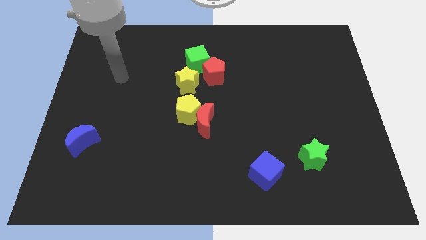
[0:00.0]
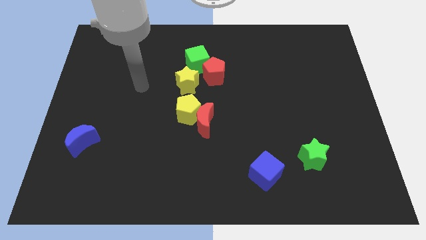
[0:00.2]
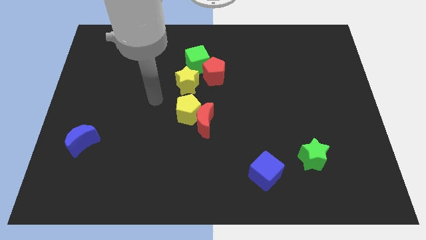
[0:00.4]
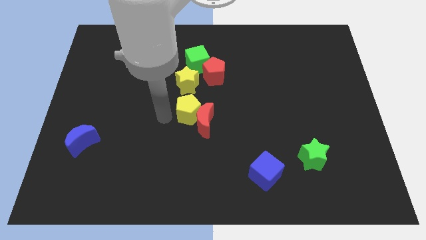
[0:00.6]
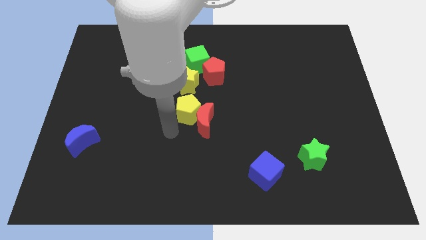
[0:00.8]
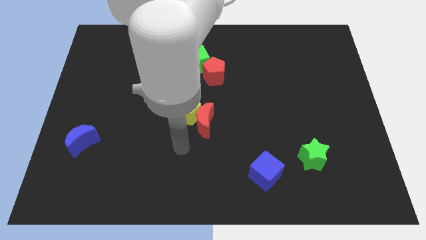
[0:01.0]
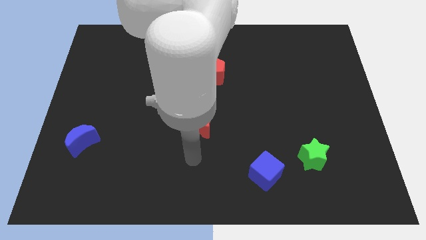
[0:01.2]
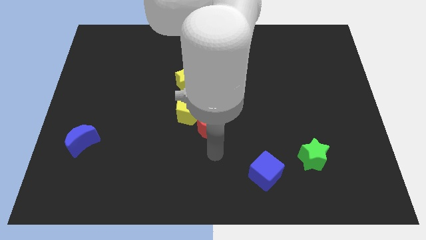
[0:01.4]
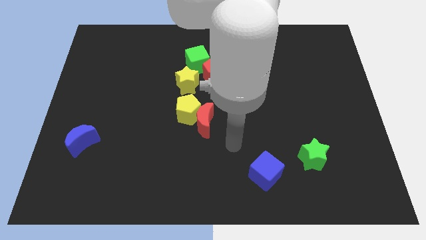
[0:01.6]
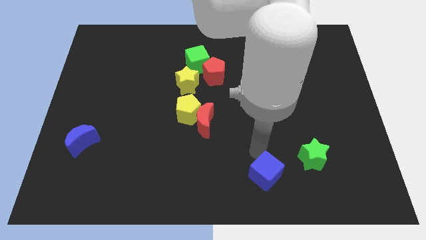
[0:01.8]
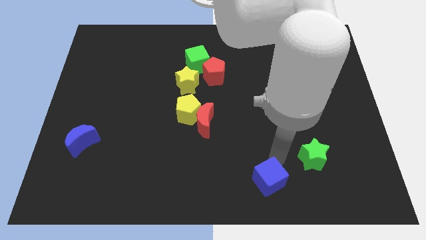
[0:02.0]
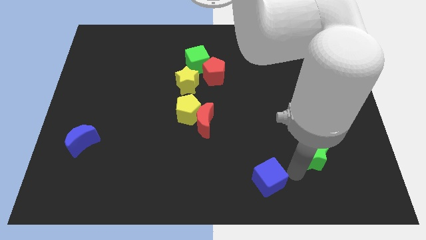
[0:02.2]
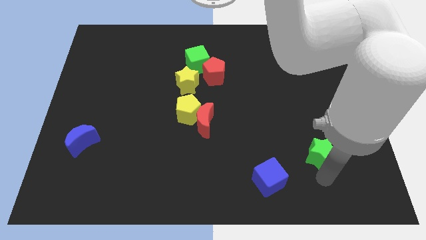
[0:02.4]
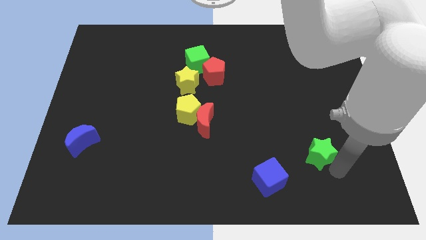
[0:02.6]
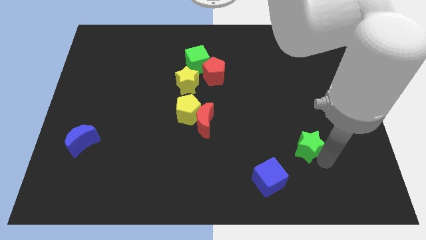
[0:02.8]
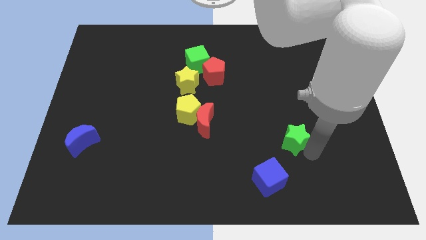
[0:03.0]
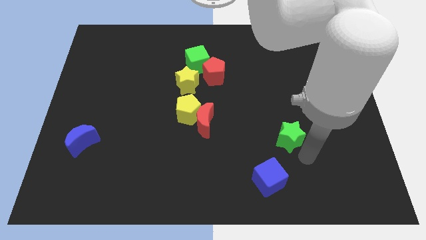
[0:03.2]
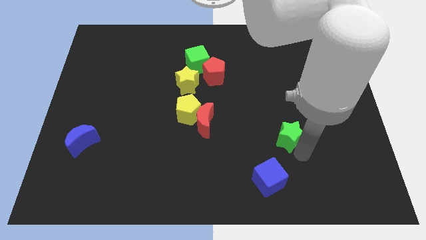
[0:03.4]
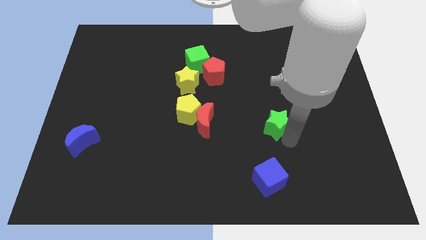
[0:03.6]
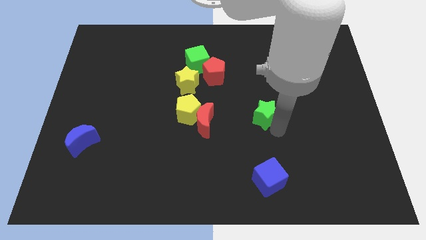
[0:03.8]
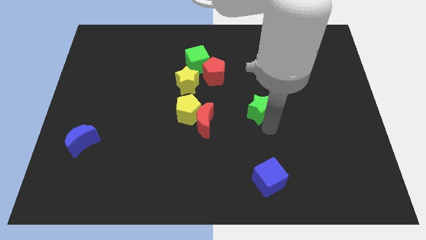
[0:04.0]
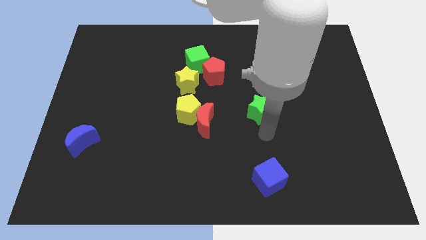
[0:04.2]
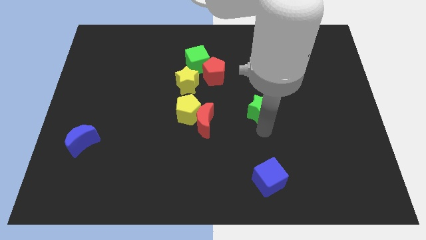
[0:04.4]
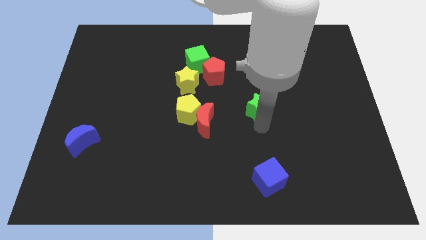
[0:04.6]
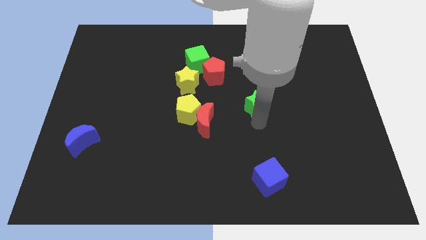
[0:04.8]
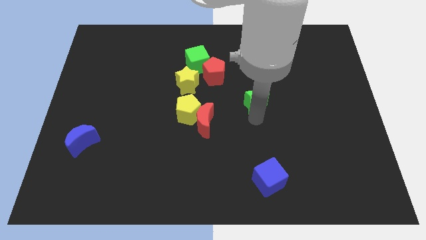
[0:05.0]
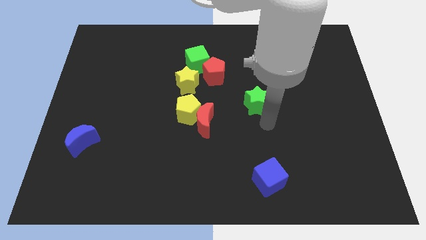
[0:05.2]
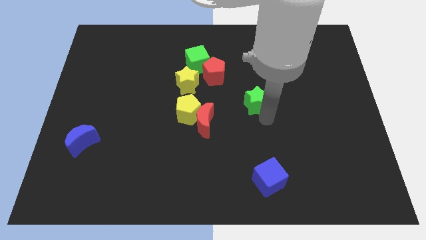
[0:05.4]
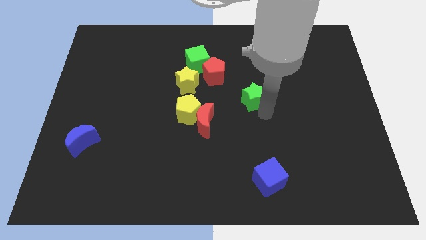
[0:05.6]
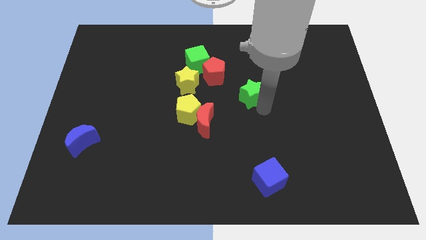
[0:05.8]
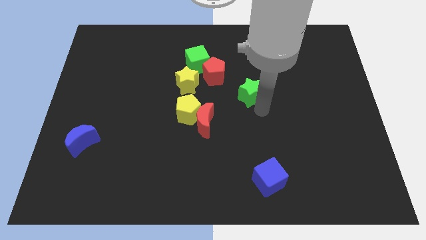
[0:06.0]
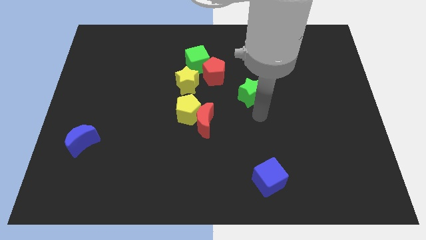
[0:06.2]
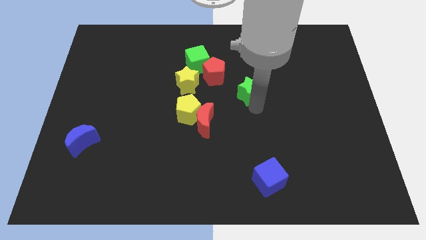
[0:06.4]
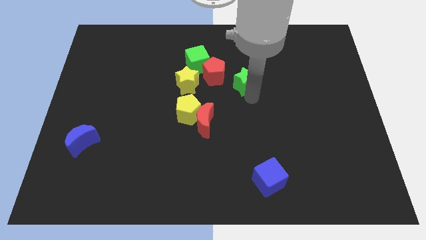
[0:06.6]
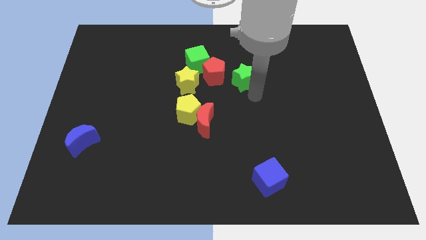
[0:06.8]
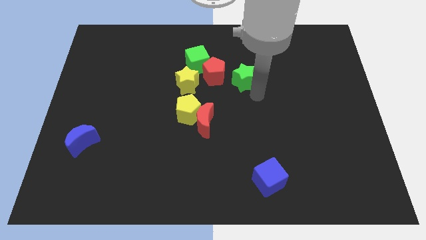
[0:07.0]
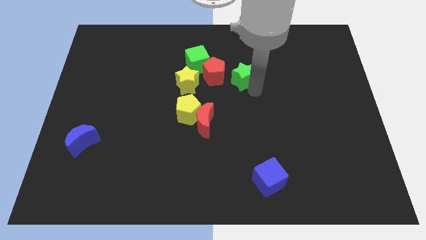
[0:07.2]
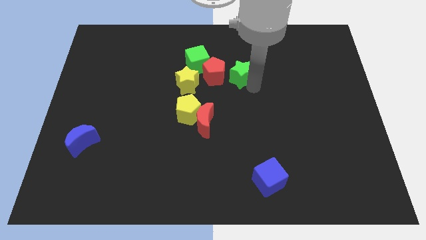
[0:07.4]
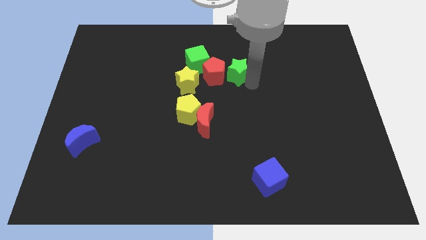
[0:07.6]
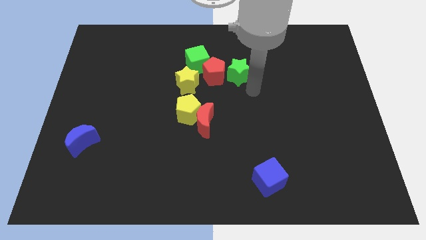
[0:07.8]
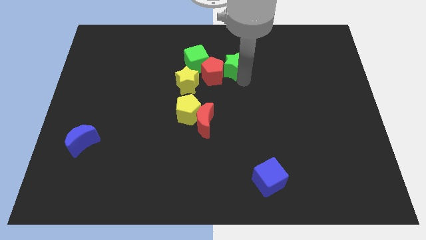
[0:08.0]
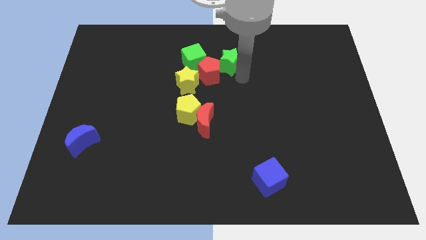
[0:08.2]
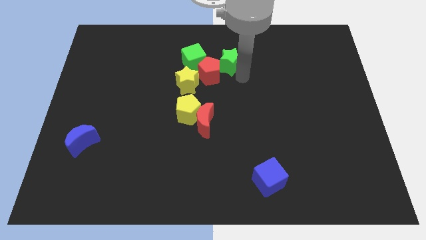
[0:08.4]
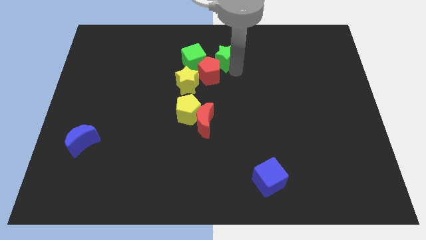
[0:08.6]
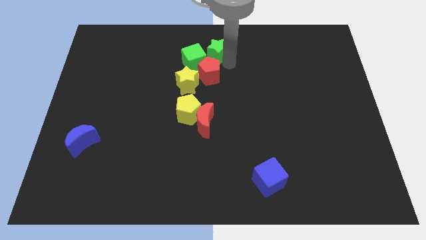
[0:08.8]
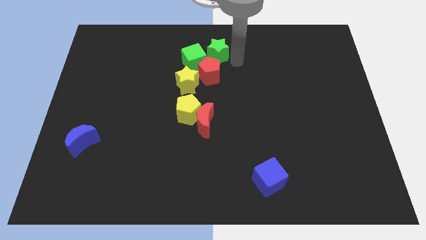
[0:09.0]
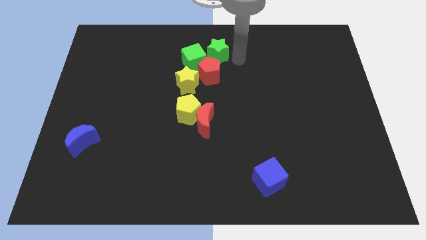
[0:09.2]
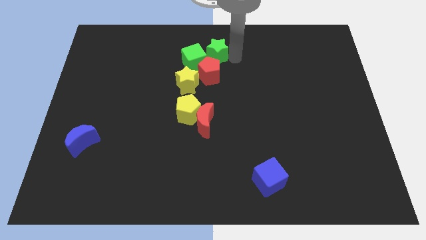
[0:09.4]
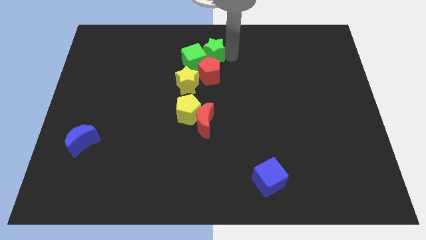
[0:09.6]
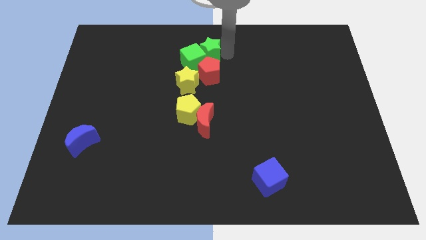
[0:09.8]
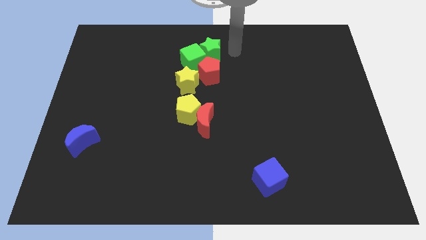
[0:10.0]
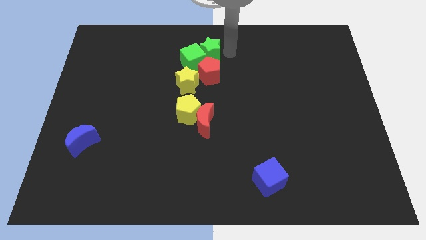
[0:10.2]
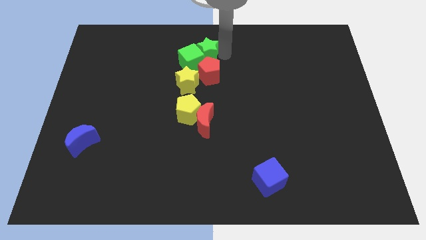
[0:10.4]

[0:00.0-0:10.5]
put the green star to the top side of the yellow star

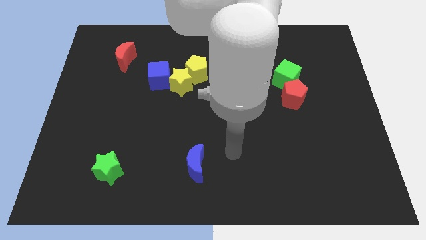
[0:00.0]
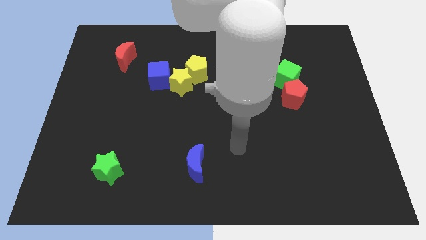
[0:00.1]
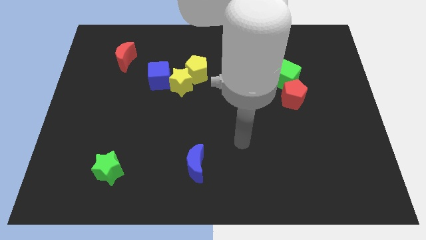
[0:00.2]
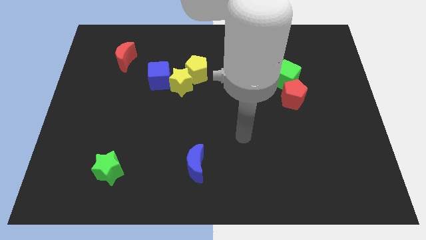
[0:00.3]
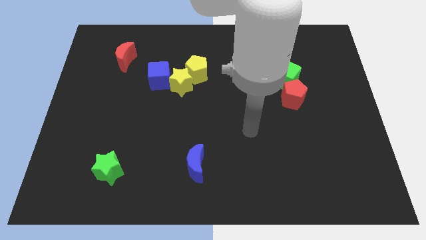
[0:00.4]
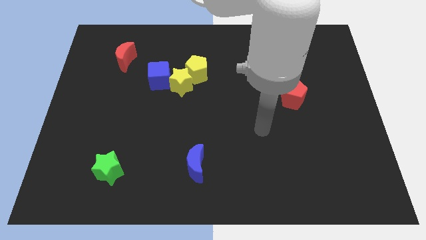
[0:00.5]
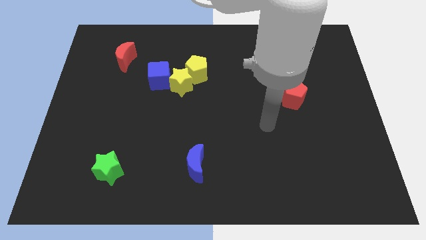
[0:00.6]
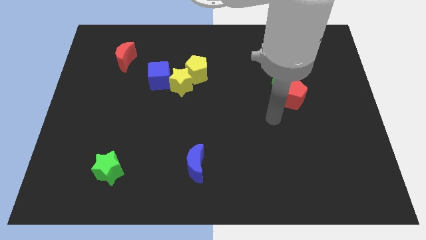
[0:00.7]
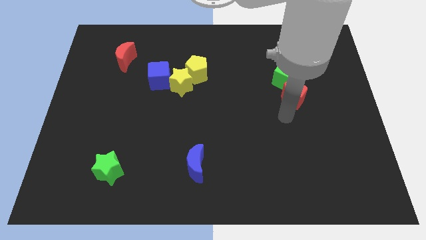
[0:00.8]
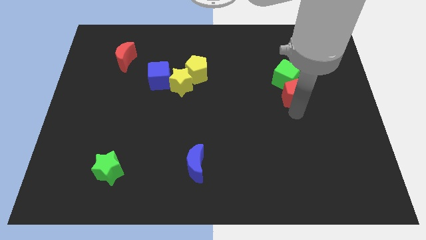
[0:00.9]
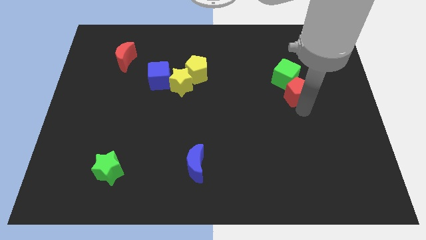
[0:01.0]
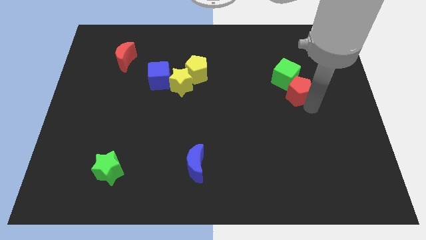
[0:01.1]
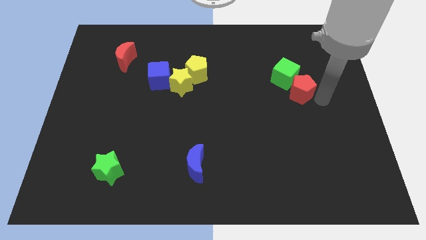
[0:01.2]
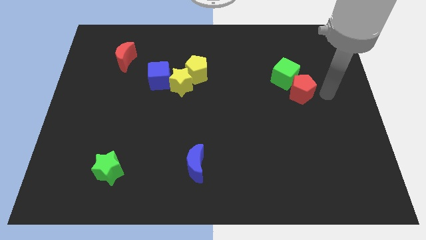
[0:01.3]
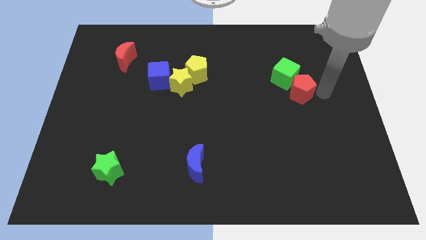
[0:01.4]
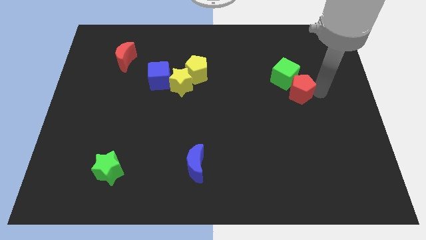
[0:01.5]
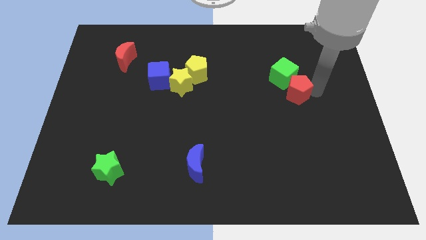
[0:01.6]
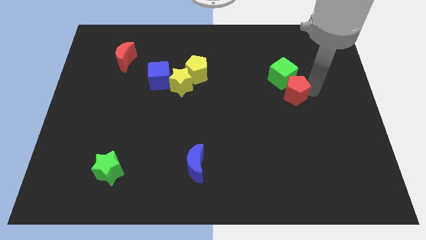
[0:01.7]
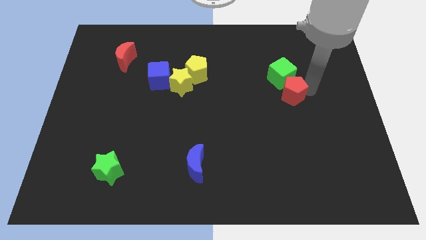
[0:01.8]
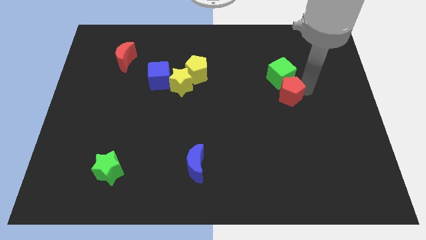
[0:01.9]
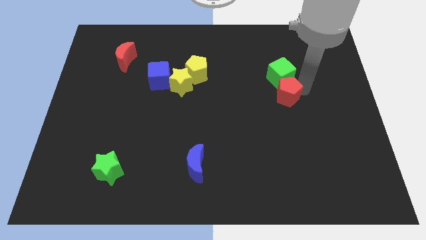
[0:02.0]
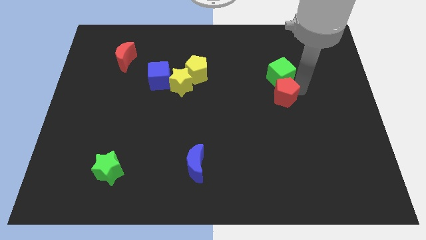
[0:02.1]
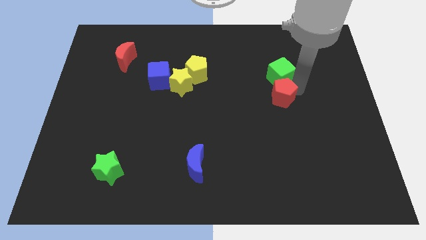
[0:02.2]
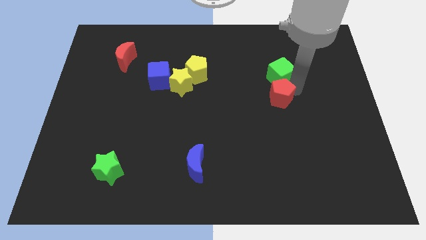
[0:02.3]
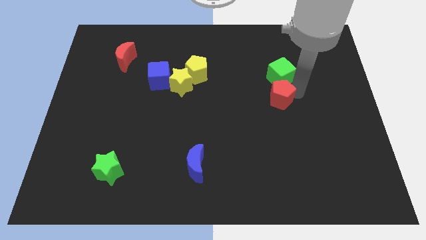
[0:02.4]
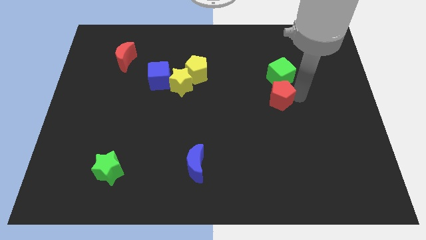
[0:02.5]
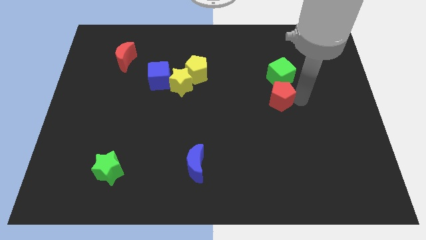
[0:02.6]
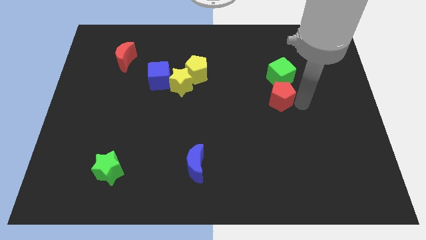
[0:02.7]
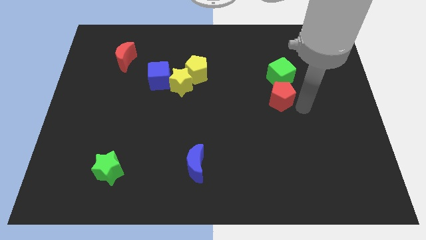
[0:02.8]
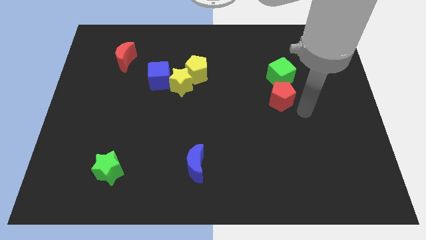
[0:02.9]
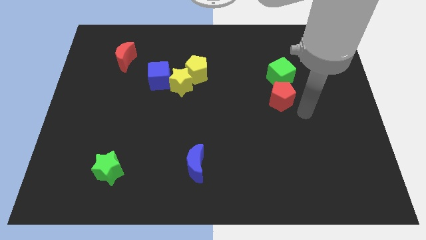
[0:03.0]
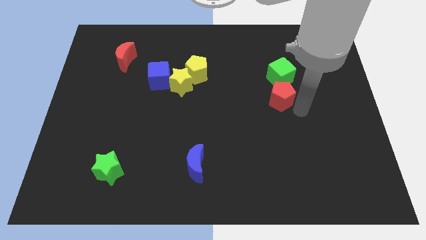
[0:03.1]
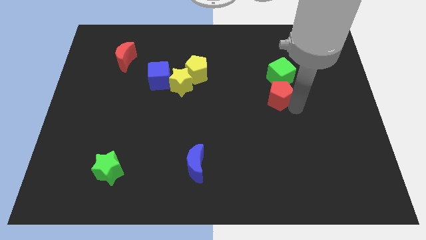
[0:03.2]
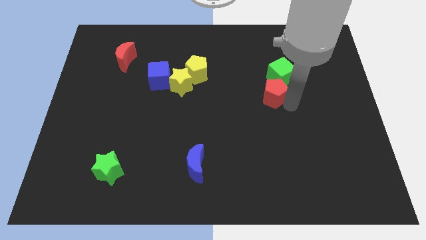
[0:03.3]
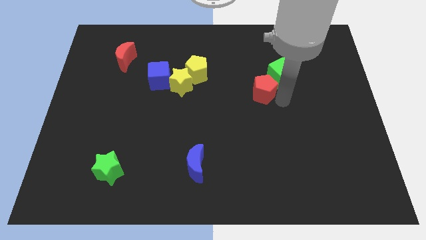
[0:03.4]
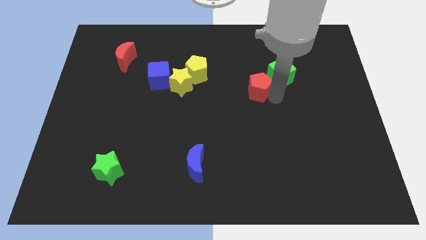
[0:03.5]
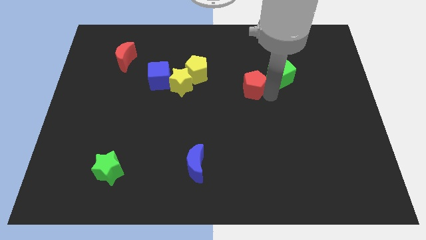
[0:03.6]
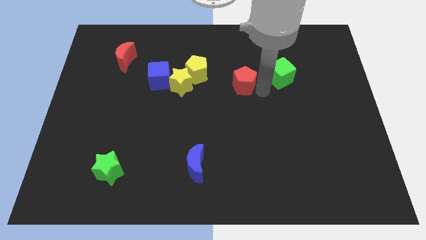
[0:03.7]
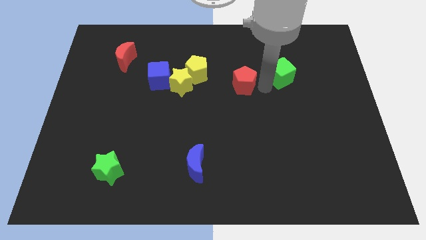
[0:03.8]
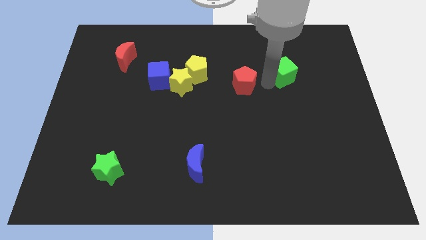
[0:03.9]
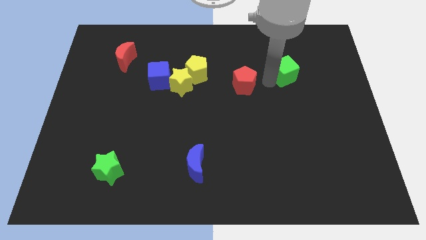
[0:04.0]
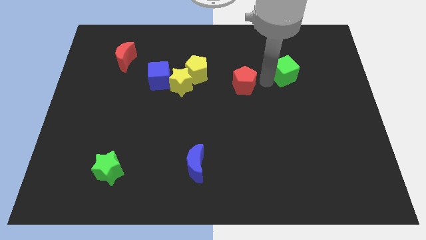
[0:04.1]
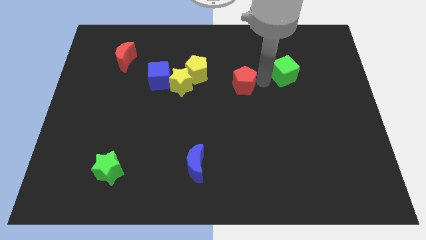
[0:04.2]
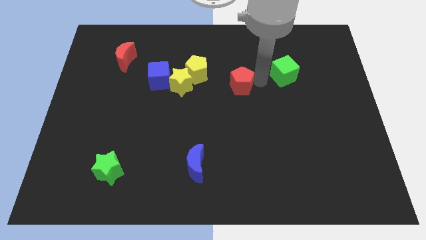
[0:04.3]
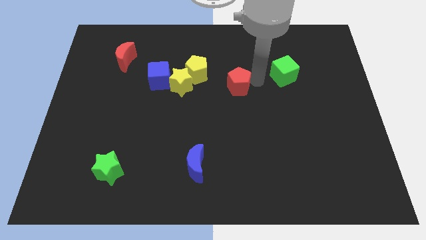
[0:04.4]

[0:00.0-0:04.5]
slide the red pentagon to the bottom right side of the yellow pentagon
